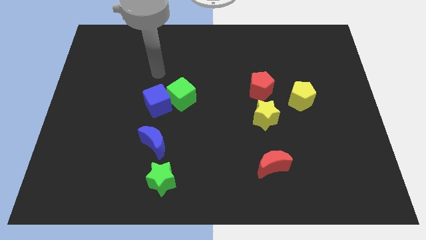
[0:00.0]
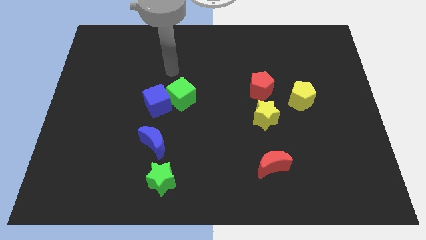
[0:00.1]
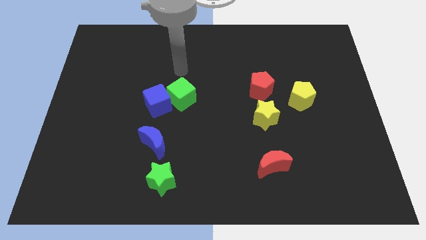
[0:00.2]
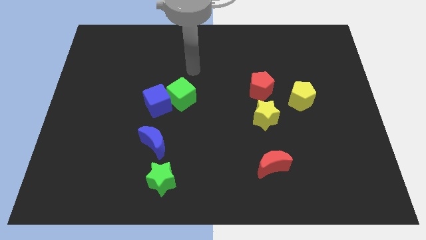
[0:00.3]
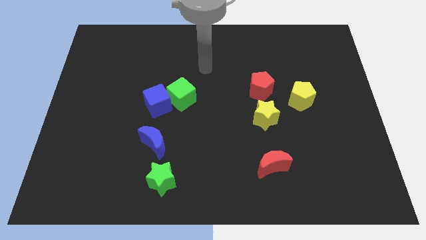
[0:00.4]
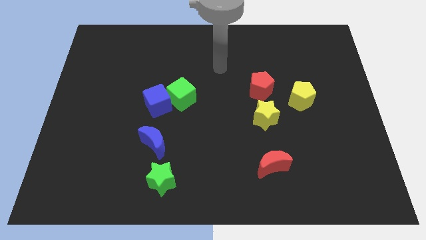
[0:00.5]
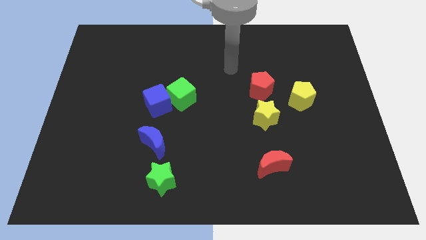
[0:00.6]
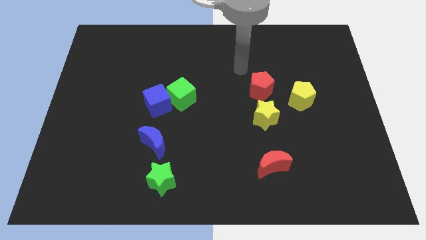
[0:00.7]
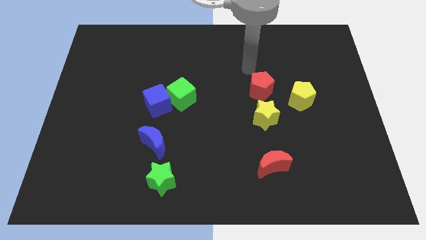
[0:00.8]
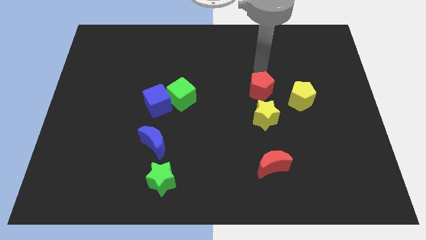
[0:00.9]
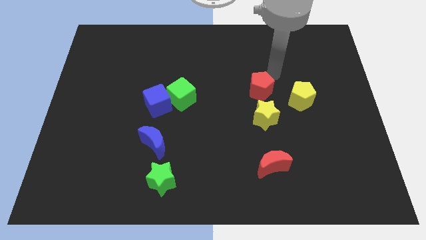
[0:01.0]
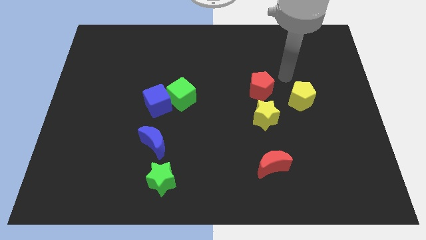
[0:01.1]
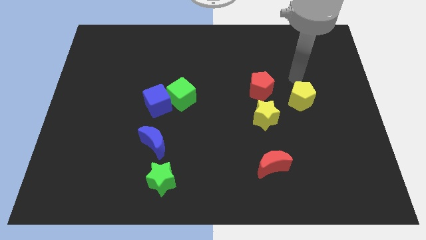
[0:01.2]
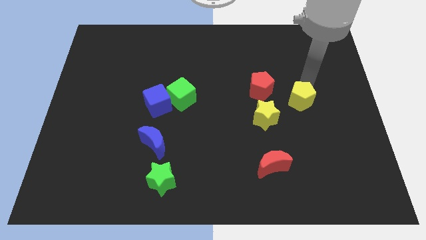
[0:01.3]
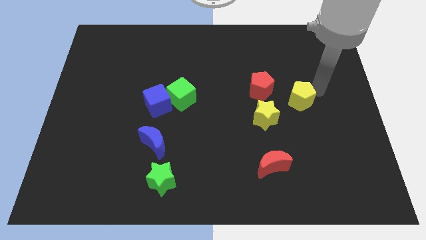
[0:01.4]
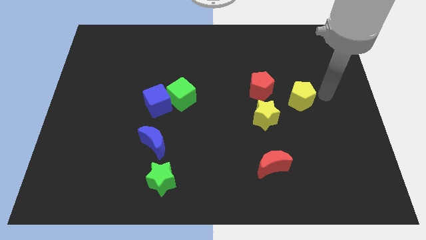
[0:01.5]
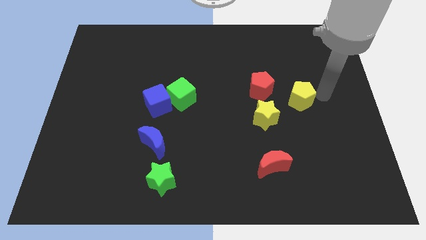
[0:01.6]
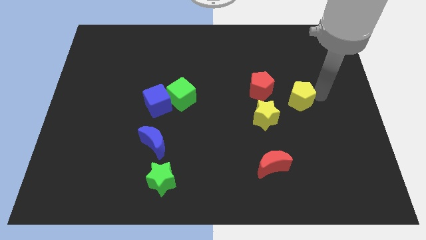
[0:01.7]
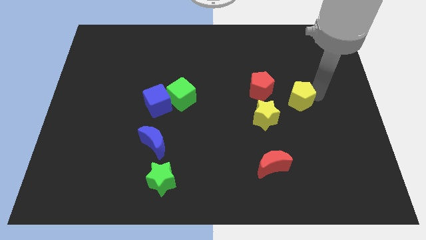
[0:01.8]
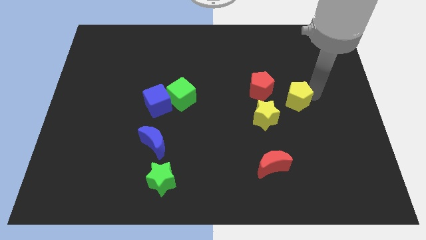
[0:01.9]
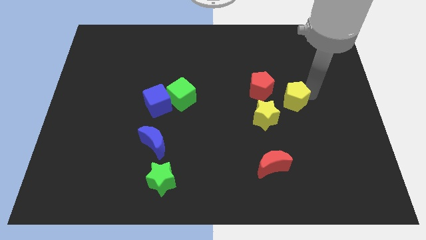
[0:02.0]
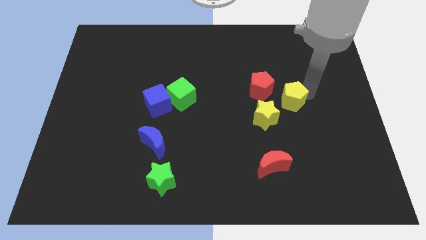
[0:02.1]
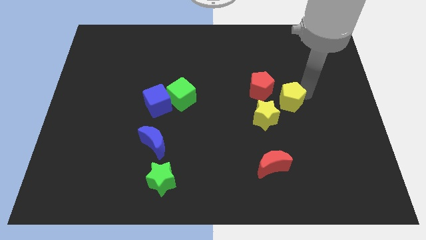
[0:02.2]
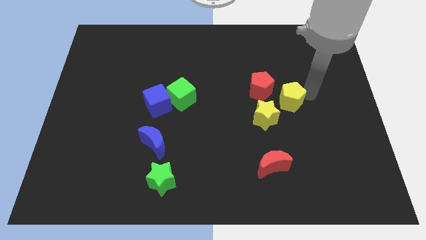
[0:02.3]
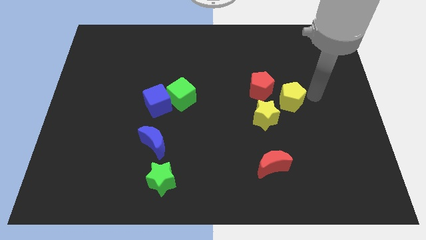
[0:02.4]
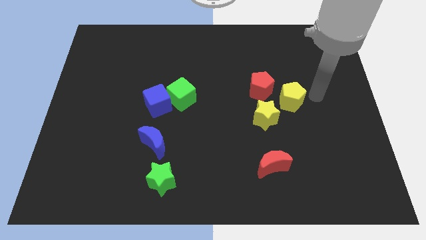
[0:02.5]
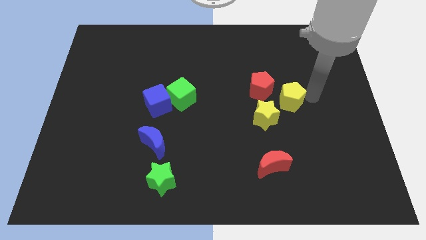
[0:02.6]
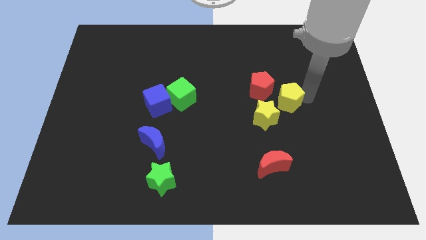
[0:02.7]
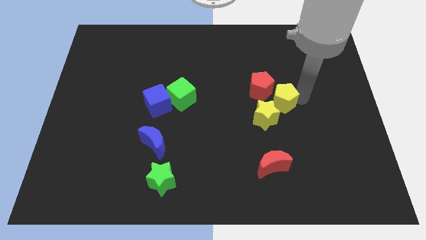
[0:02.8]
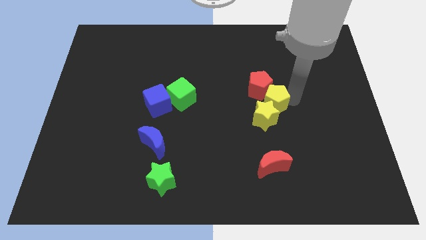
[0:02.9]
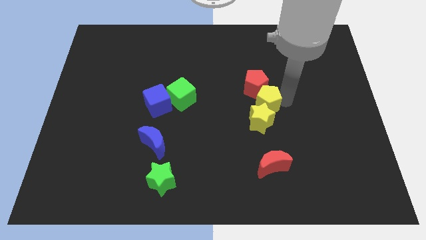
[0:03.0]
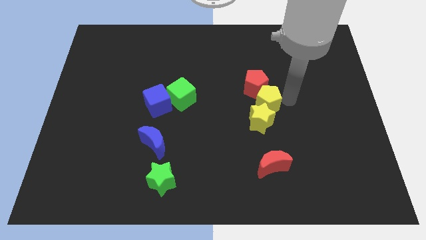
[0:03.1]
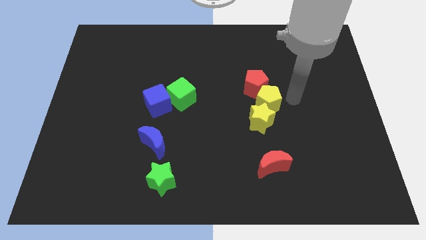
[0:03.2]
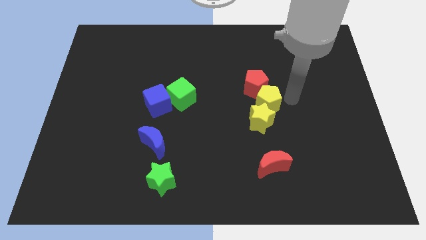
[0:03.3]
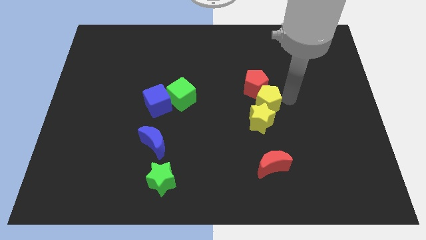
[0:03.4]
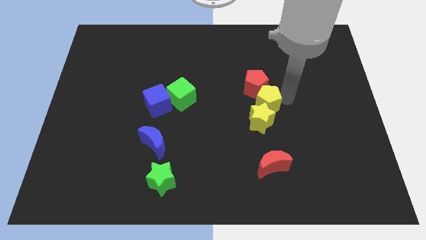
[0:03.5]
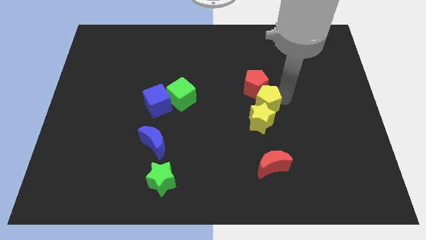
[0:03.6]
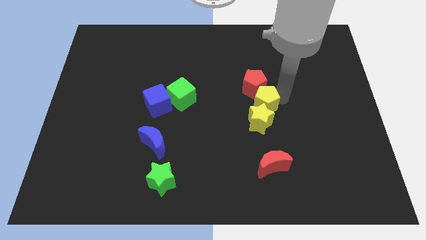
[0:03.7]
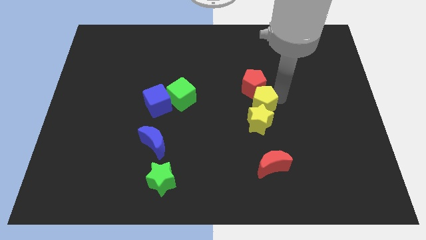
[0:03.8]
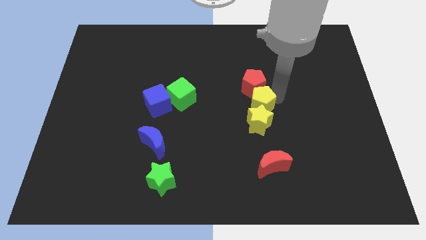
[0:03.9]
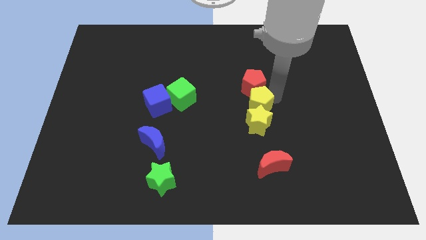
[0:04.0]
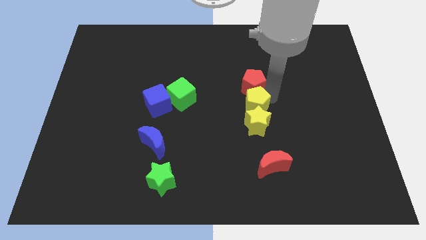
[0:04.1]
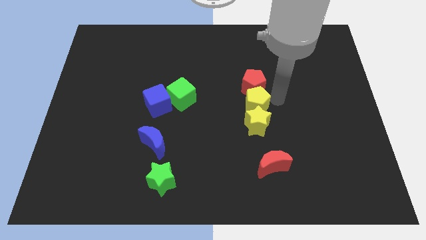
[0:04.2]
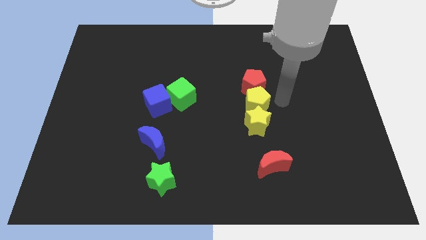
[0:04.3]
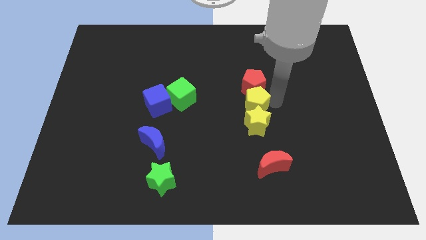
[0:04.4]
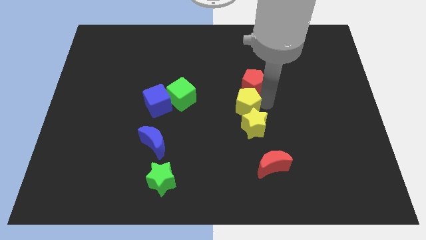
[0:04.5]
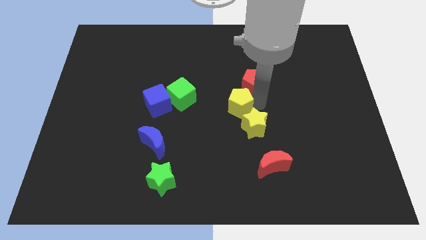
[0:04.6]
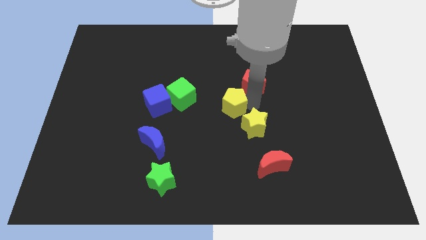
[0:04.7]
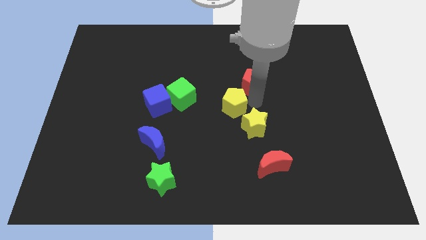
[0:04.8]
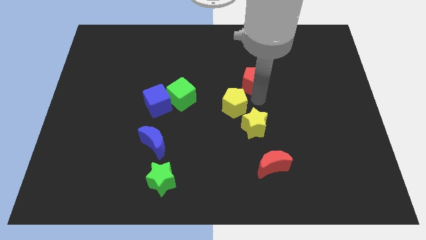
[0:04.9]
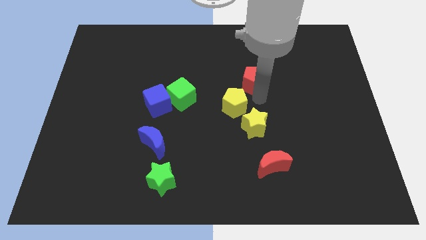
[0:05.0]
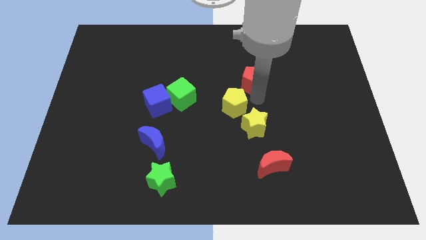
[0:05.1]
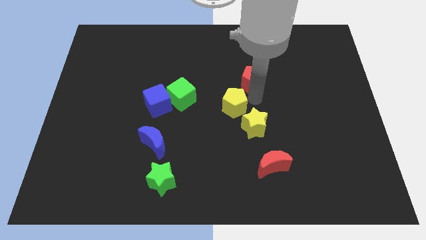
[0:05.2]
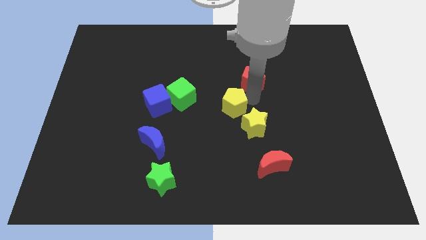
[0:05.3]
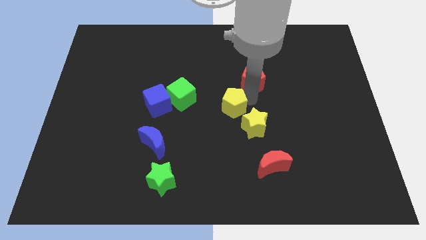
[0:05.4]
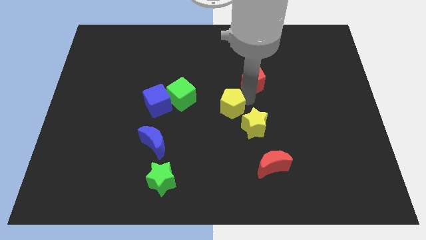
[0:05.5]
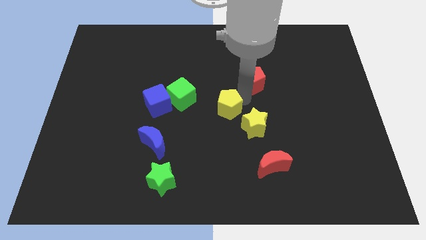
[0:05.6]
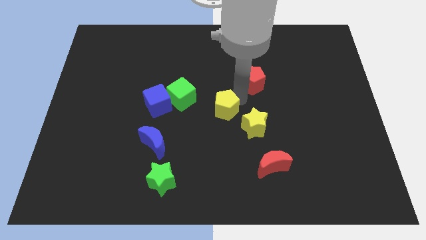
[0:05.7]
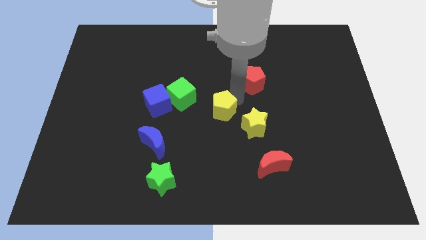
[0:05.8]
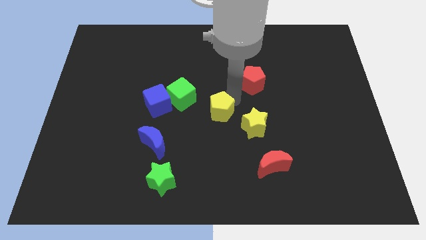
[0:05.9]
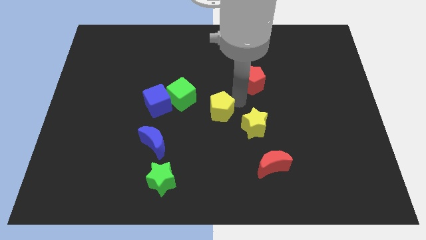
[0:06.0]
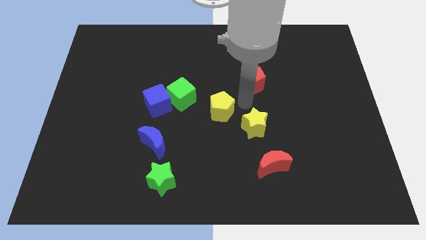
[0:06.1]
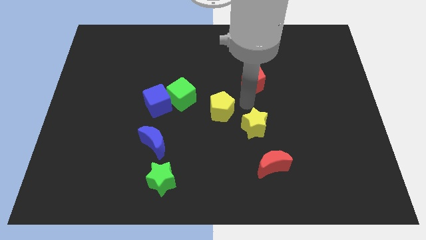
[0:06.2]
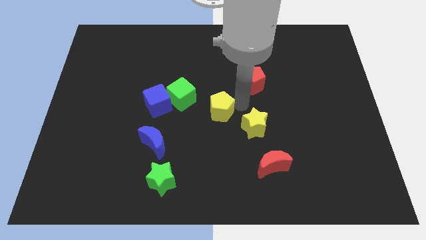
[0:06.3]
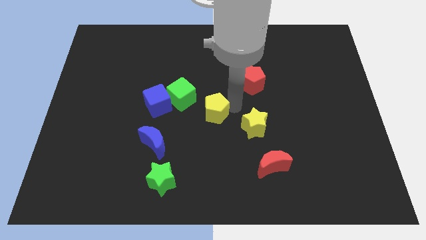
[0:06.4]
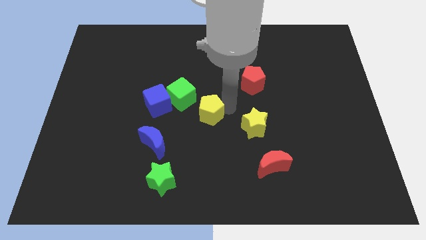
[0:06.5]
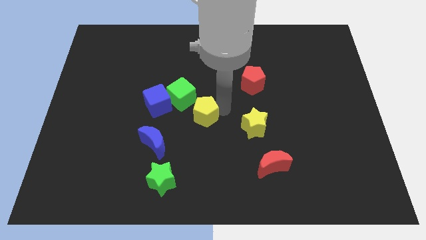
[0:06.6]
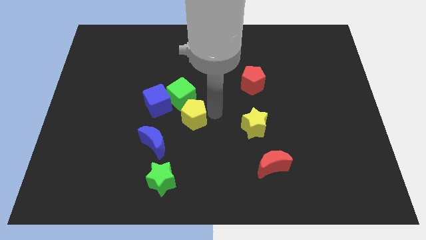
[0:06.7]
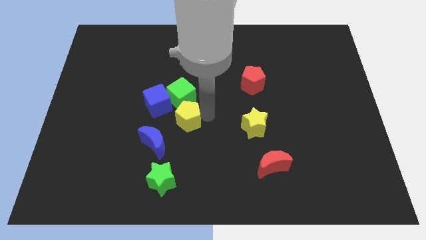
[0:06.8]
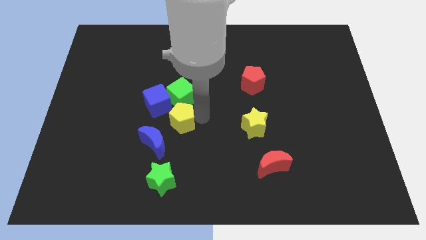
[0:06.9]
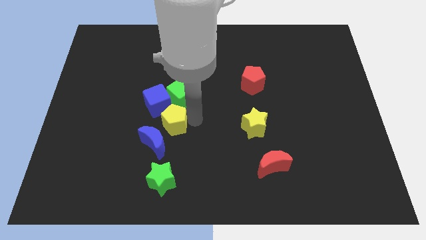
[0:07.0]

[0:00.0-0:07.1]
move the yellow pentagon diagonally down and to the left of the green cube
